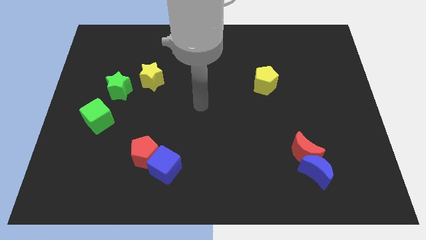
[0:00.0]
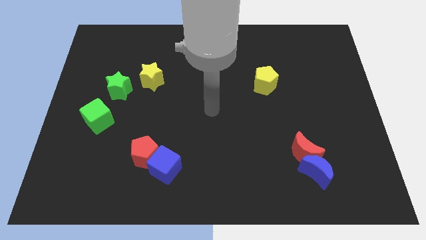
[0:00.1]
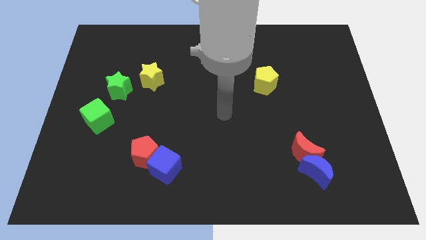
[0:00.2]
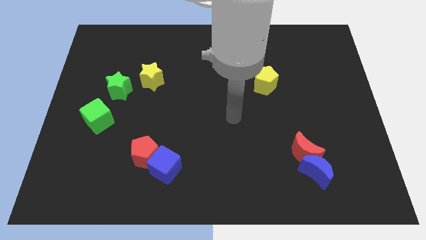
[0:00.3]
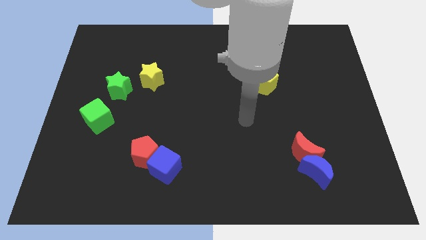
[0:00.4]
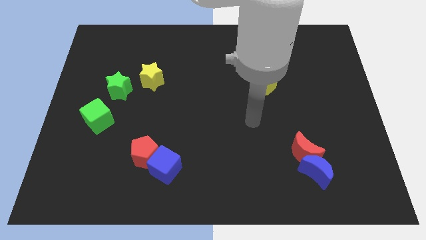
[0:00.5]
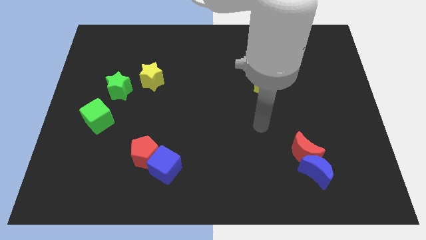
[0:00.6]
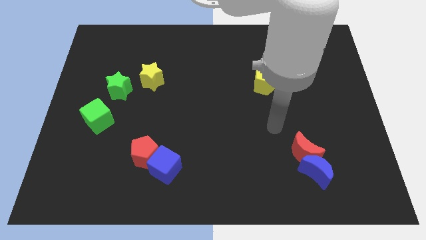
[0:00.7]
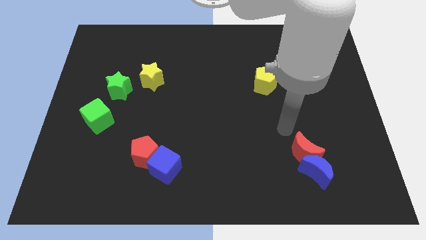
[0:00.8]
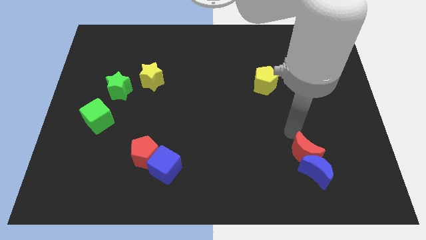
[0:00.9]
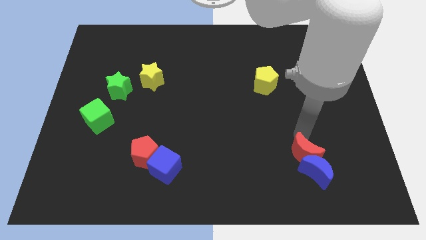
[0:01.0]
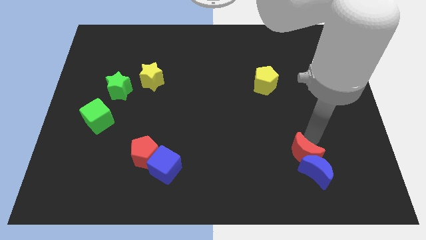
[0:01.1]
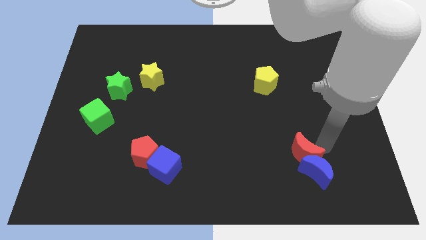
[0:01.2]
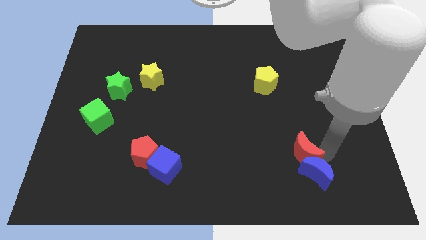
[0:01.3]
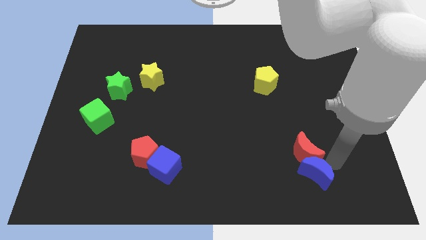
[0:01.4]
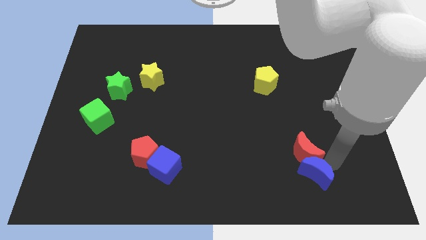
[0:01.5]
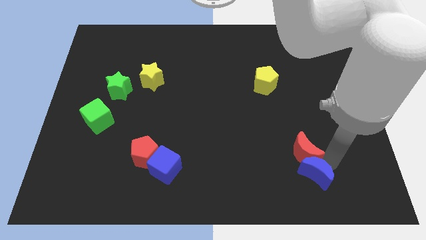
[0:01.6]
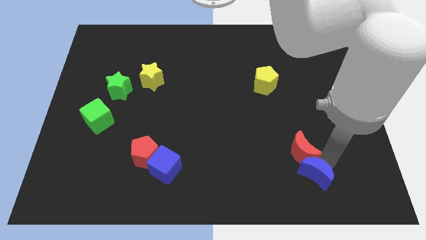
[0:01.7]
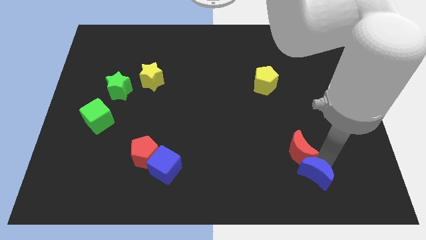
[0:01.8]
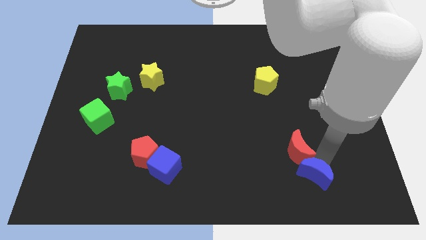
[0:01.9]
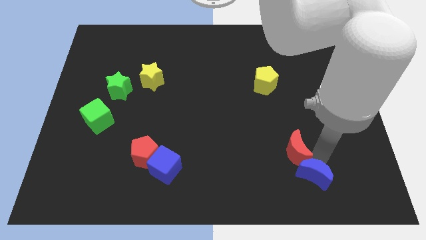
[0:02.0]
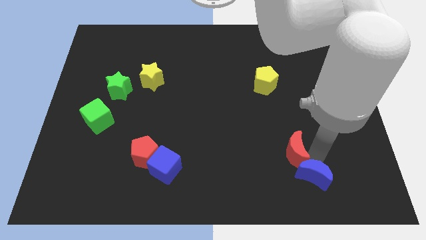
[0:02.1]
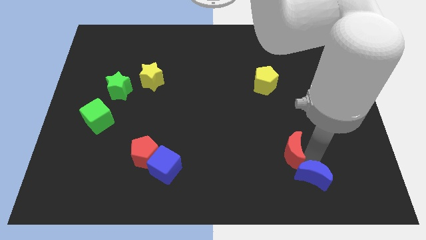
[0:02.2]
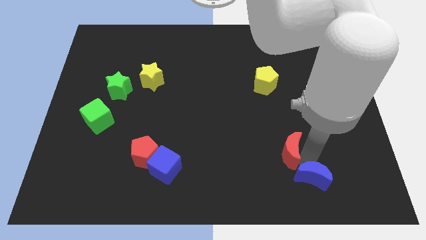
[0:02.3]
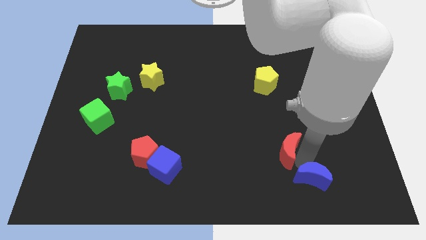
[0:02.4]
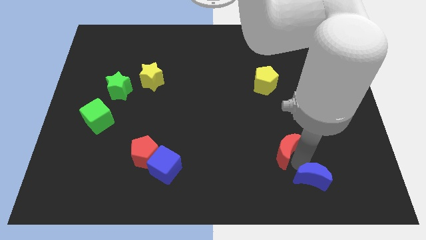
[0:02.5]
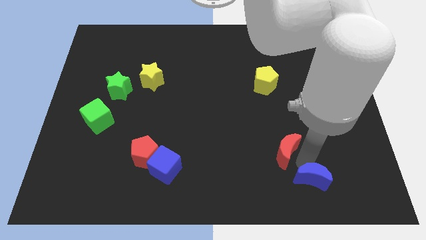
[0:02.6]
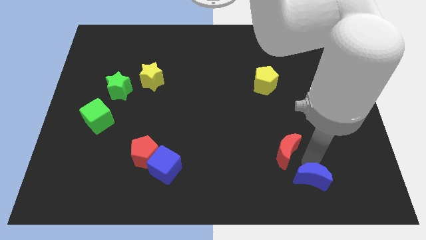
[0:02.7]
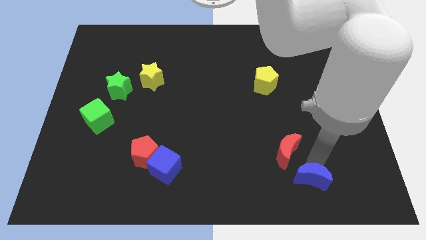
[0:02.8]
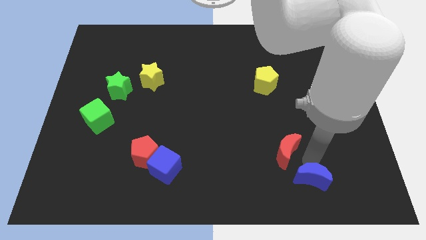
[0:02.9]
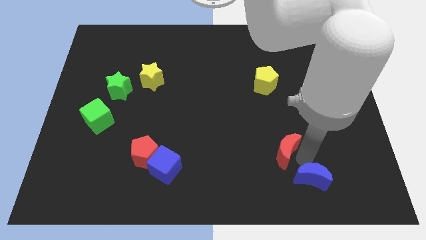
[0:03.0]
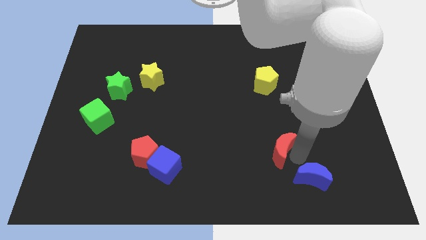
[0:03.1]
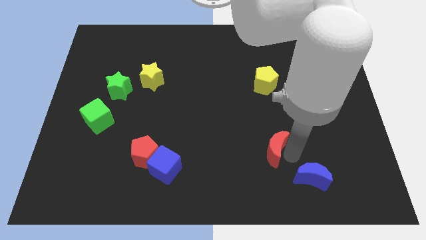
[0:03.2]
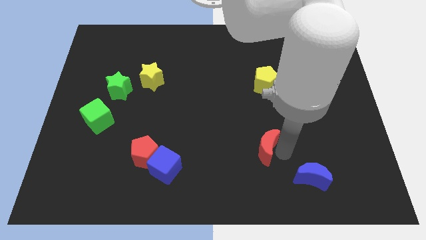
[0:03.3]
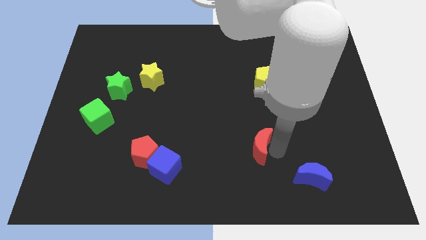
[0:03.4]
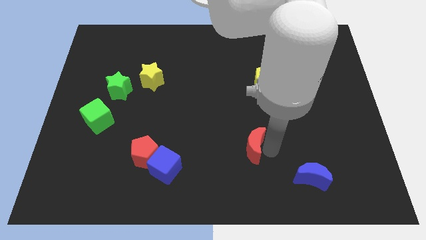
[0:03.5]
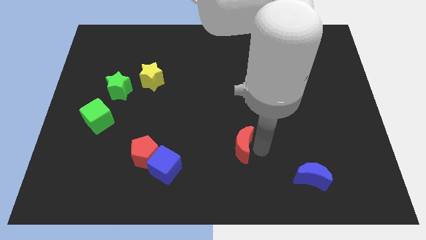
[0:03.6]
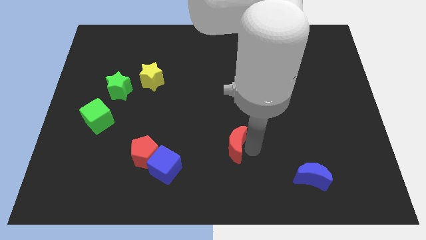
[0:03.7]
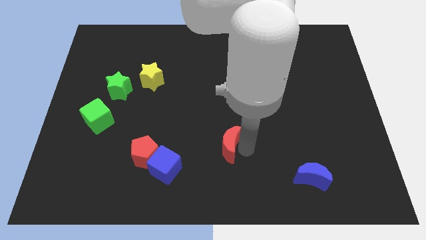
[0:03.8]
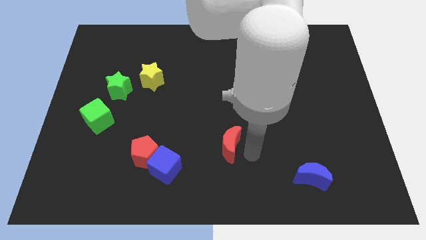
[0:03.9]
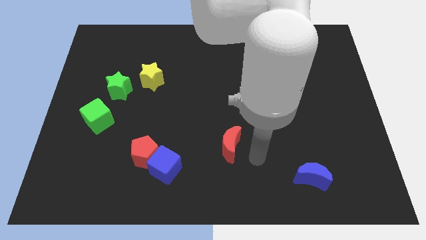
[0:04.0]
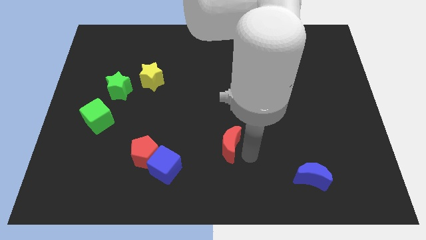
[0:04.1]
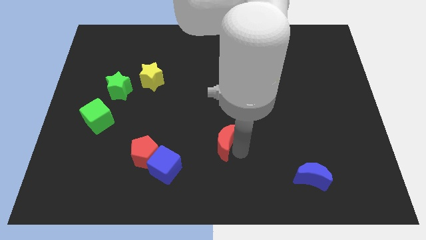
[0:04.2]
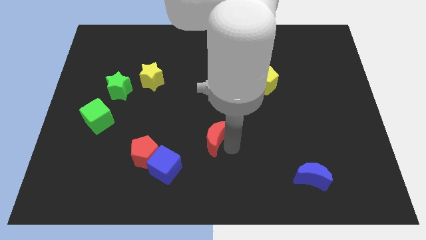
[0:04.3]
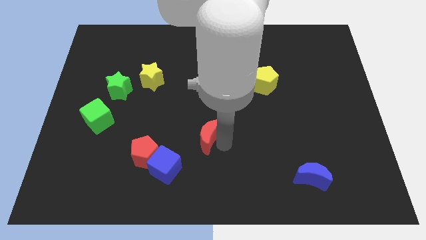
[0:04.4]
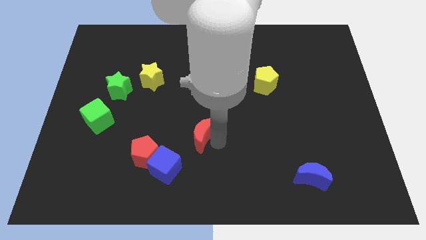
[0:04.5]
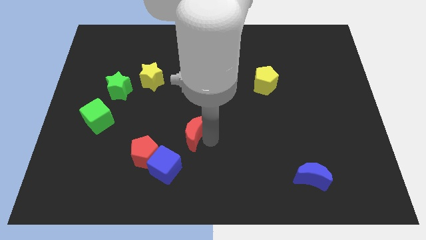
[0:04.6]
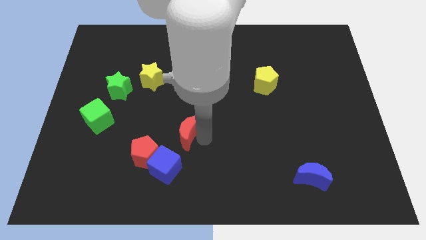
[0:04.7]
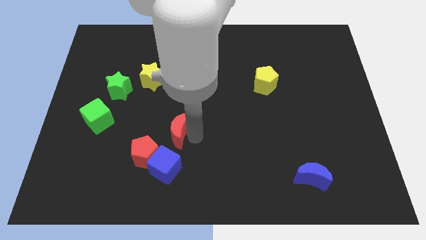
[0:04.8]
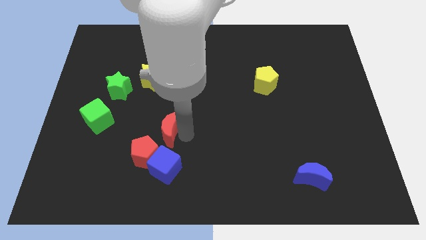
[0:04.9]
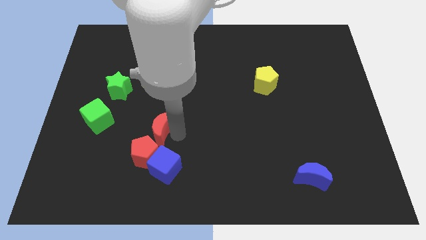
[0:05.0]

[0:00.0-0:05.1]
move the red moon to the right side of the green cube

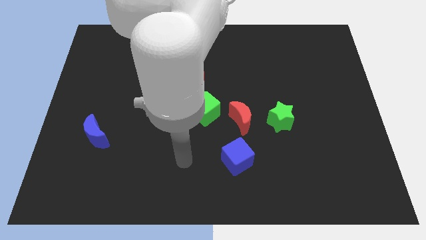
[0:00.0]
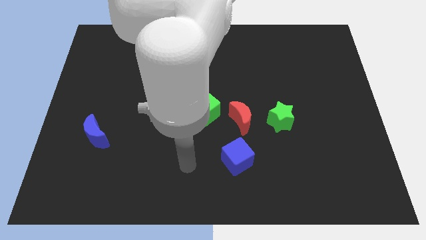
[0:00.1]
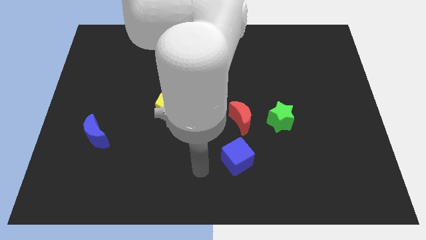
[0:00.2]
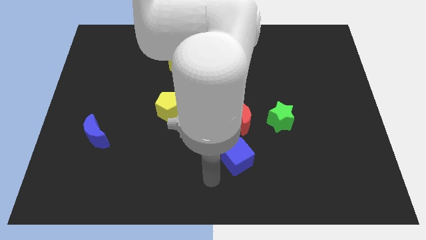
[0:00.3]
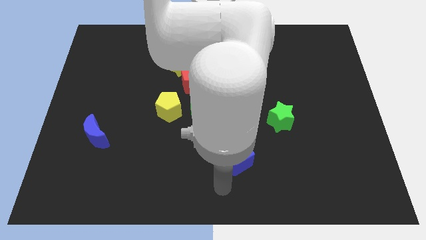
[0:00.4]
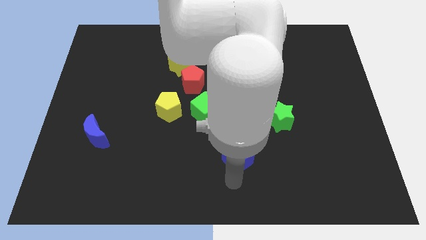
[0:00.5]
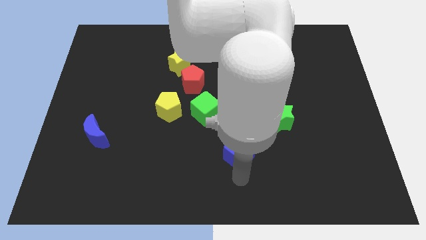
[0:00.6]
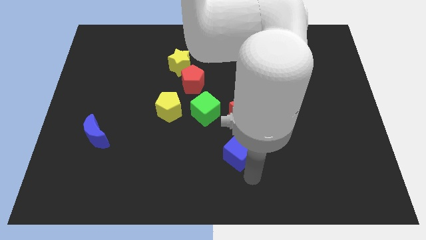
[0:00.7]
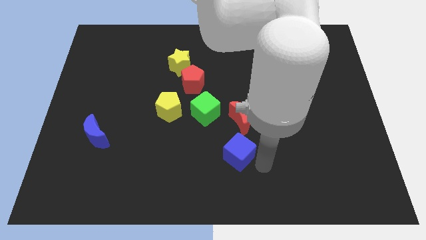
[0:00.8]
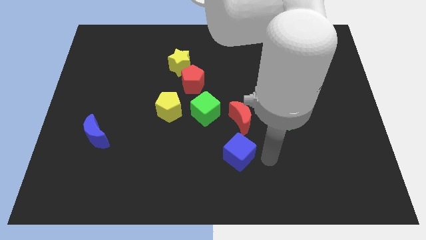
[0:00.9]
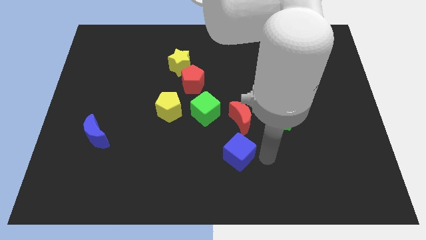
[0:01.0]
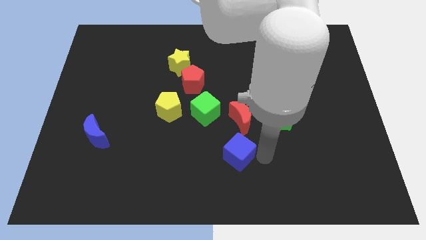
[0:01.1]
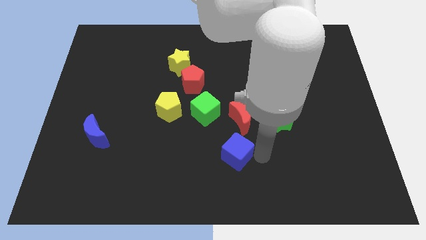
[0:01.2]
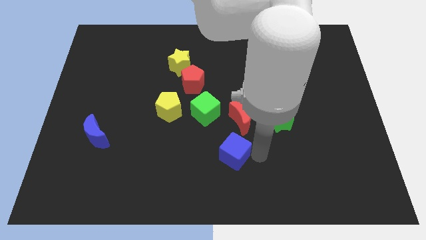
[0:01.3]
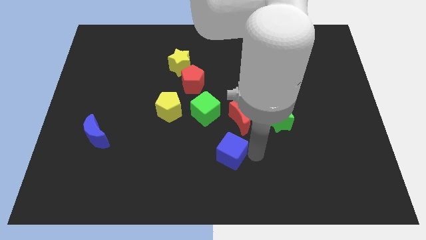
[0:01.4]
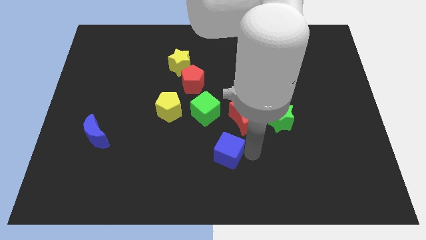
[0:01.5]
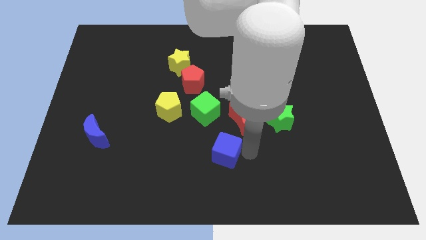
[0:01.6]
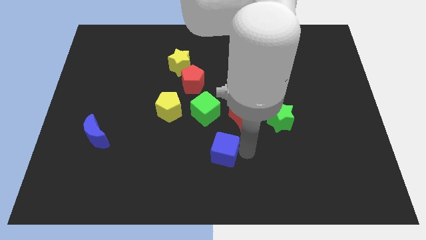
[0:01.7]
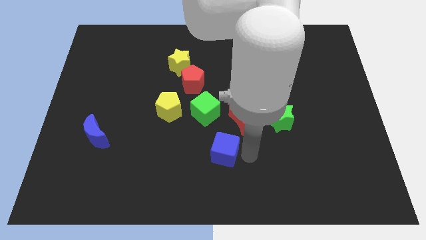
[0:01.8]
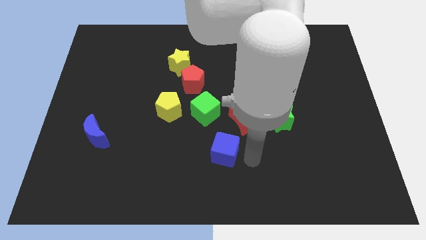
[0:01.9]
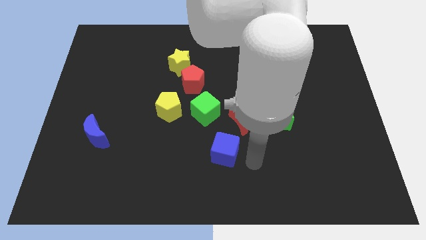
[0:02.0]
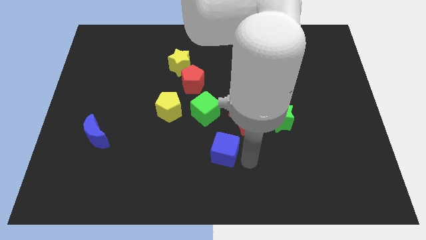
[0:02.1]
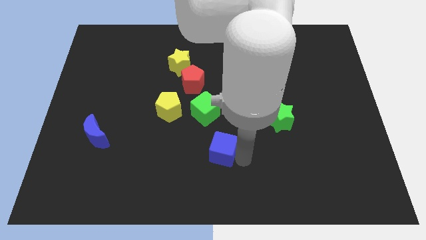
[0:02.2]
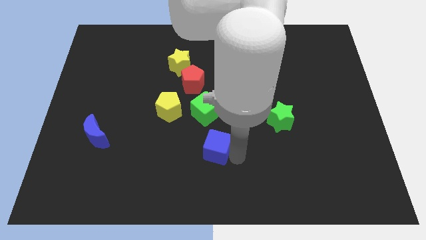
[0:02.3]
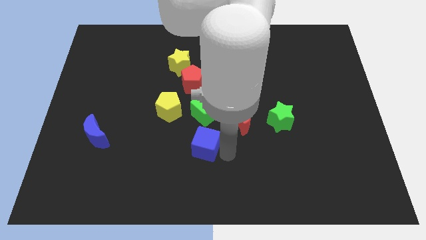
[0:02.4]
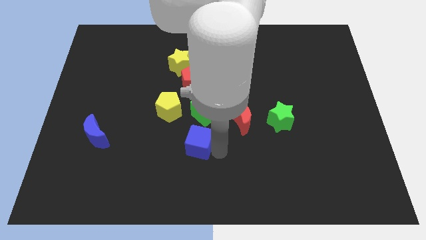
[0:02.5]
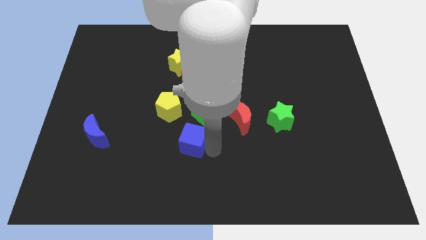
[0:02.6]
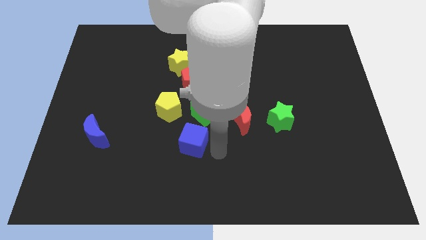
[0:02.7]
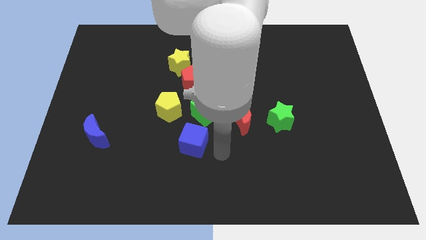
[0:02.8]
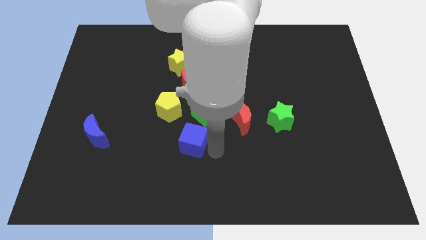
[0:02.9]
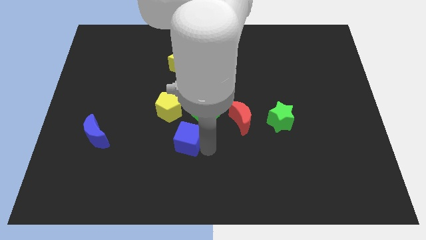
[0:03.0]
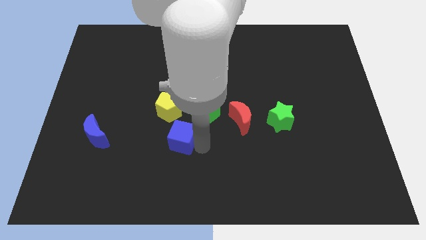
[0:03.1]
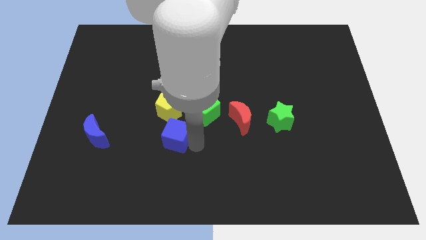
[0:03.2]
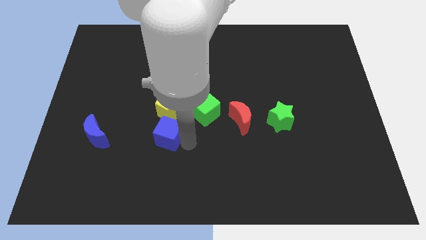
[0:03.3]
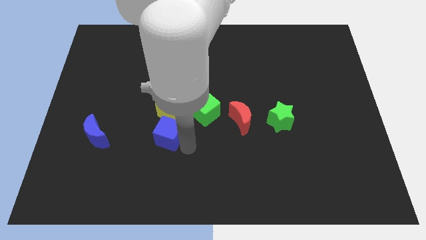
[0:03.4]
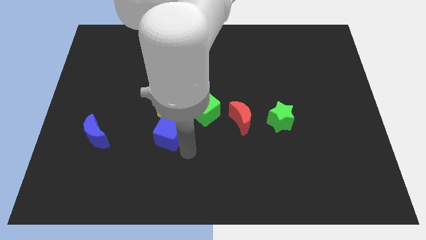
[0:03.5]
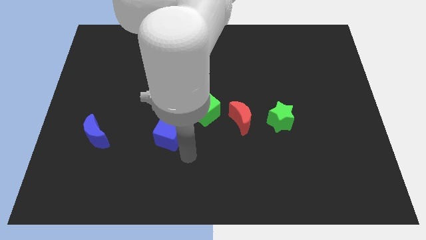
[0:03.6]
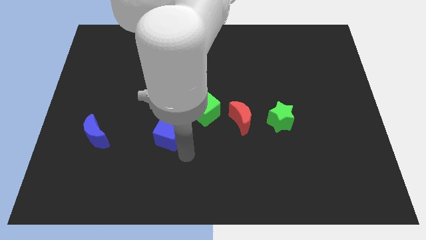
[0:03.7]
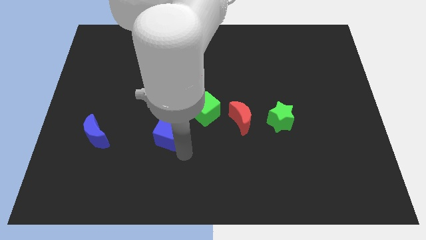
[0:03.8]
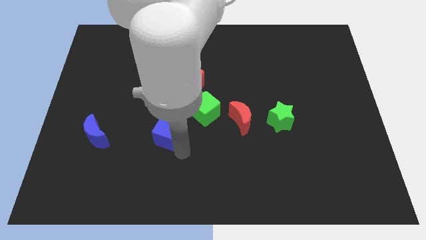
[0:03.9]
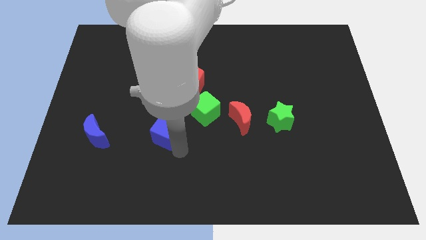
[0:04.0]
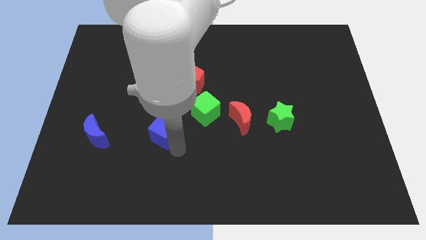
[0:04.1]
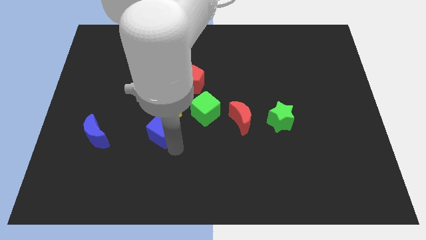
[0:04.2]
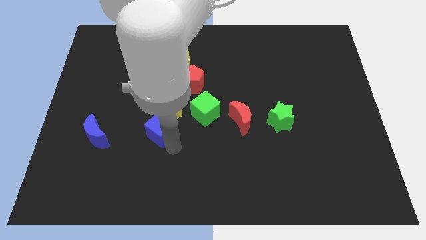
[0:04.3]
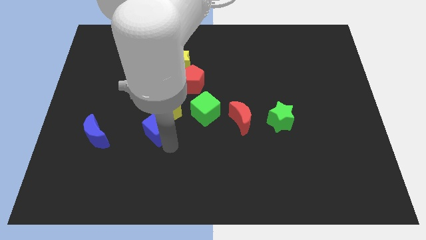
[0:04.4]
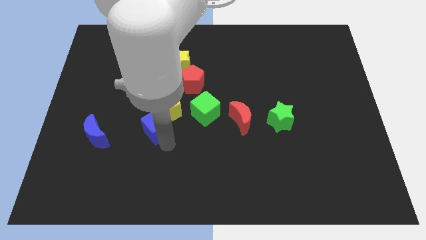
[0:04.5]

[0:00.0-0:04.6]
push the blue cube left of the green cube
